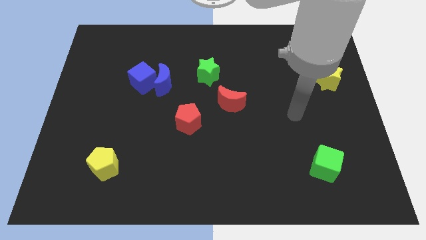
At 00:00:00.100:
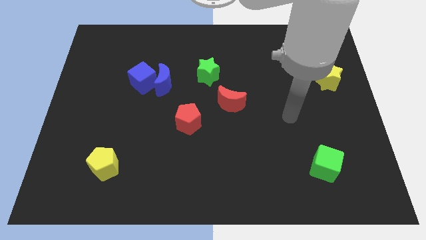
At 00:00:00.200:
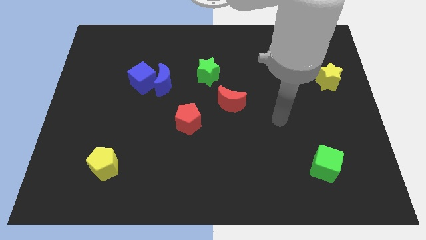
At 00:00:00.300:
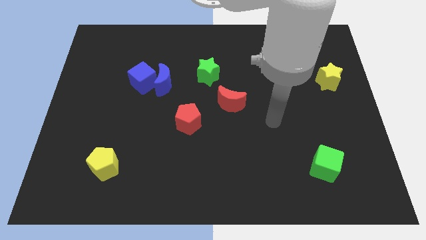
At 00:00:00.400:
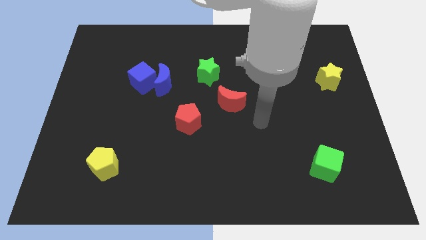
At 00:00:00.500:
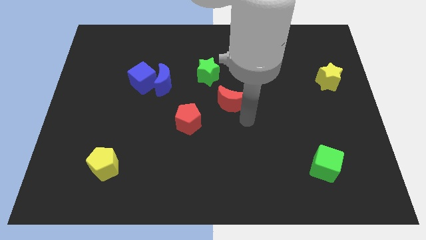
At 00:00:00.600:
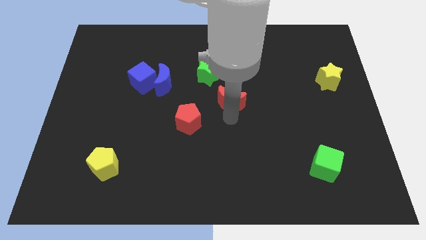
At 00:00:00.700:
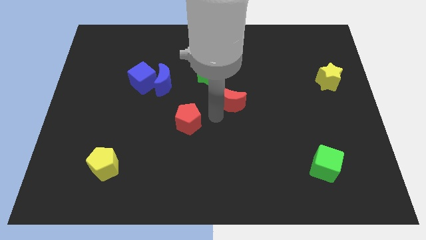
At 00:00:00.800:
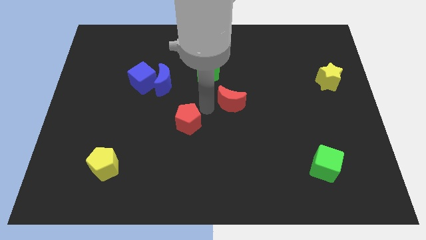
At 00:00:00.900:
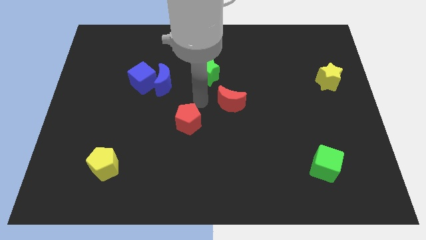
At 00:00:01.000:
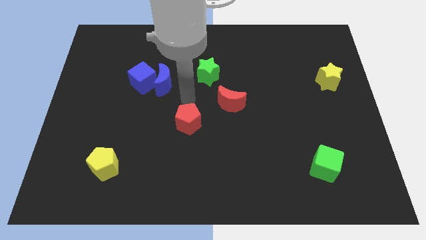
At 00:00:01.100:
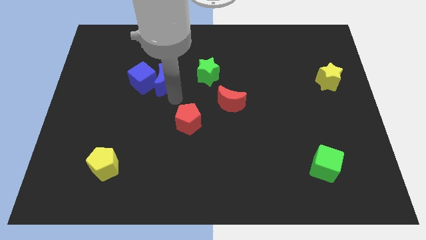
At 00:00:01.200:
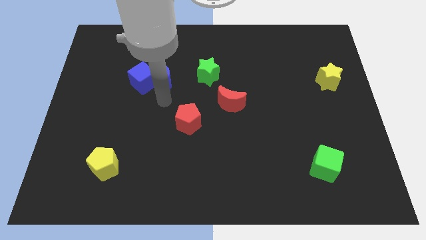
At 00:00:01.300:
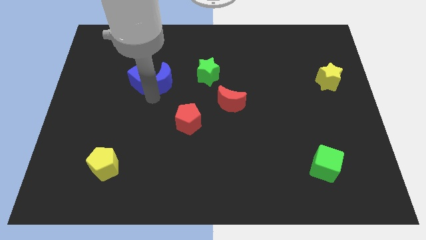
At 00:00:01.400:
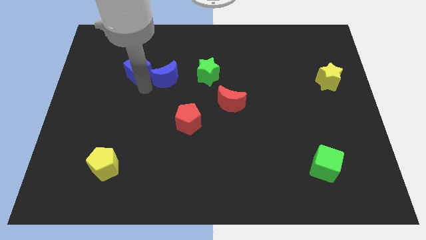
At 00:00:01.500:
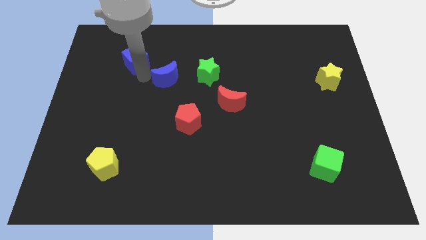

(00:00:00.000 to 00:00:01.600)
move the blue moon away from the blue cube

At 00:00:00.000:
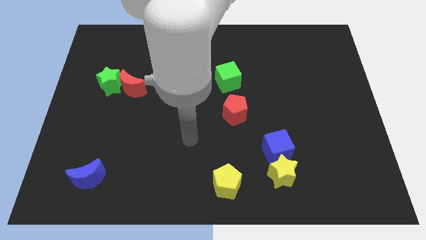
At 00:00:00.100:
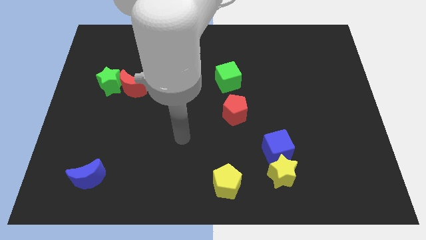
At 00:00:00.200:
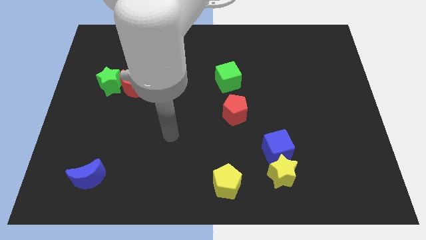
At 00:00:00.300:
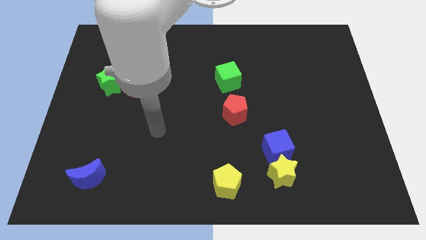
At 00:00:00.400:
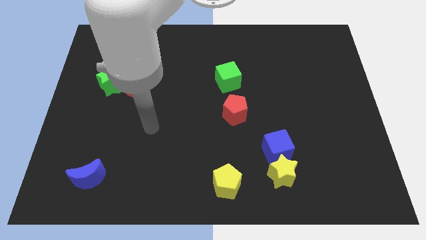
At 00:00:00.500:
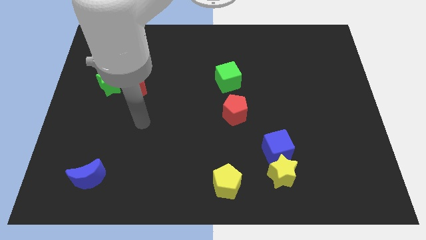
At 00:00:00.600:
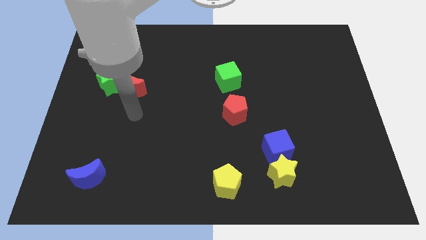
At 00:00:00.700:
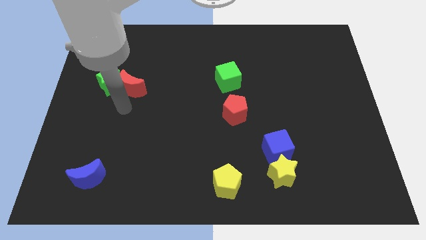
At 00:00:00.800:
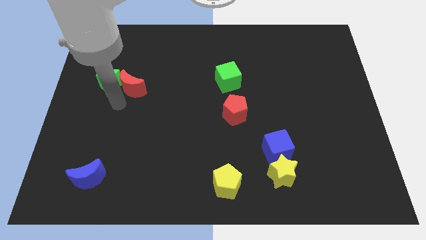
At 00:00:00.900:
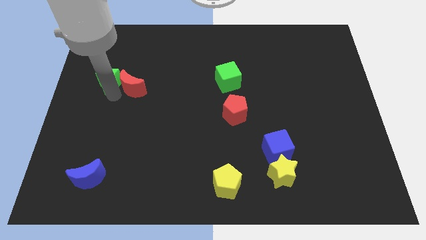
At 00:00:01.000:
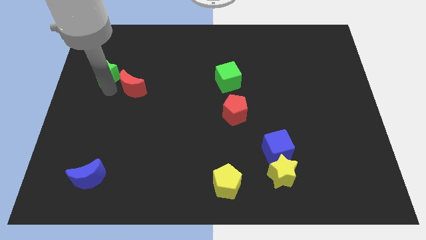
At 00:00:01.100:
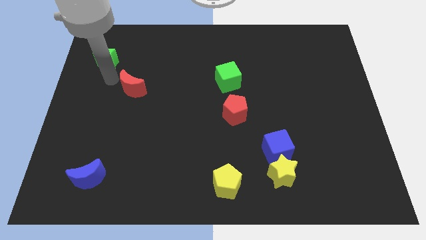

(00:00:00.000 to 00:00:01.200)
separate the red moon from the green star

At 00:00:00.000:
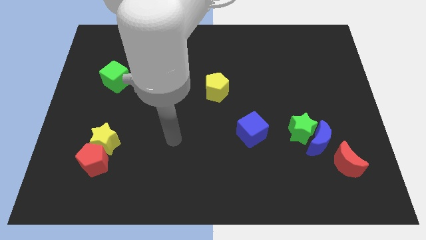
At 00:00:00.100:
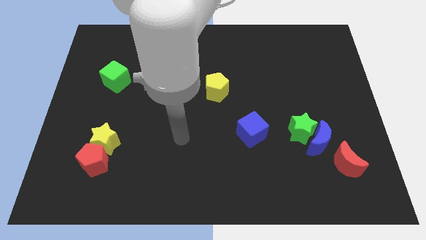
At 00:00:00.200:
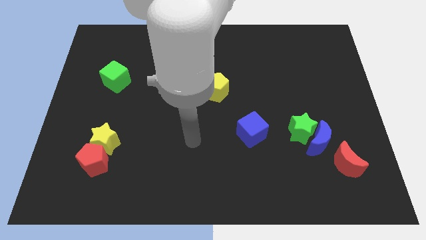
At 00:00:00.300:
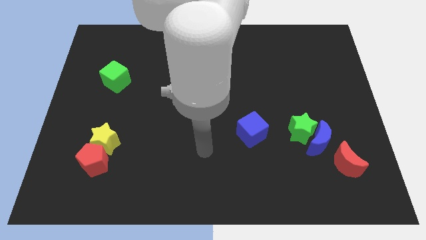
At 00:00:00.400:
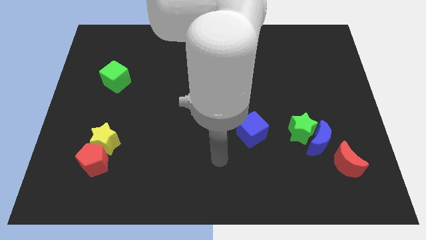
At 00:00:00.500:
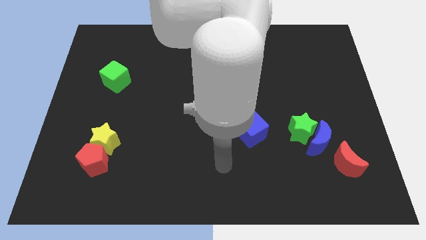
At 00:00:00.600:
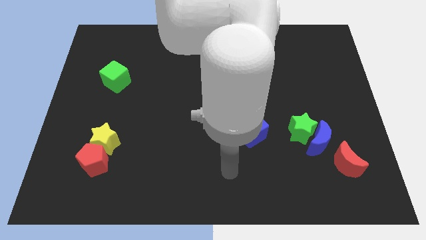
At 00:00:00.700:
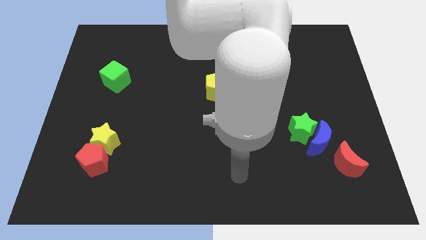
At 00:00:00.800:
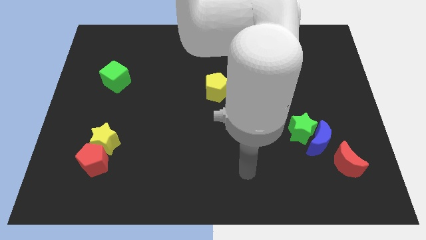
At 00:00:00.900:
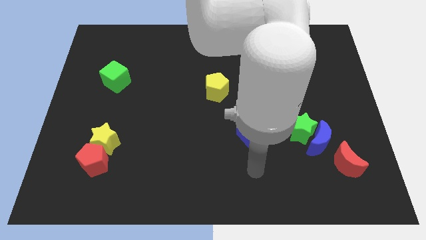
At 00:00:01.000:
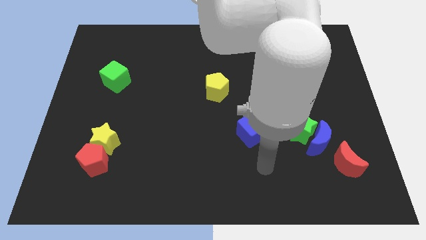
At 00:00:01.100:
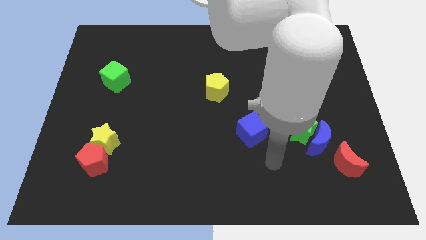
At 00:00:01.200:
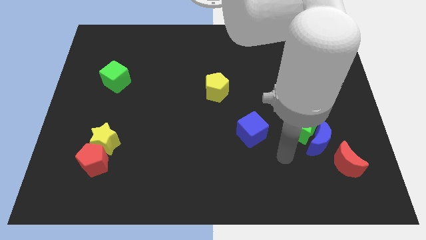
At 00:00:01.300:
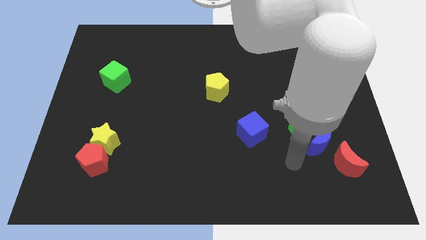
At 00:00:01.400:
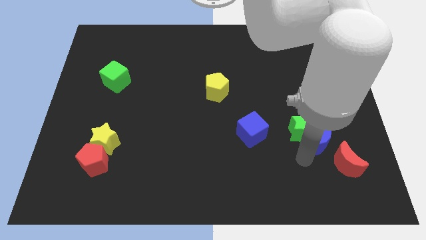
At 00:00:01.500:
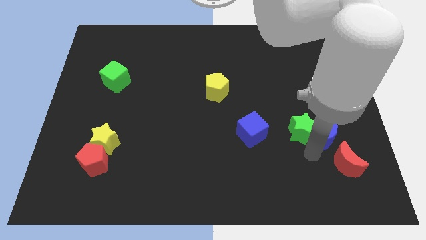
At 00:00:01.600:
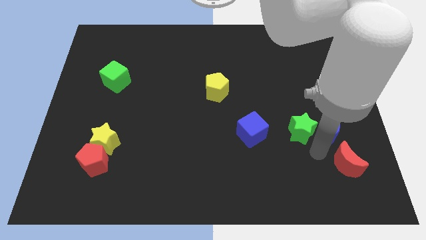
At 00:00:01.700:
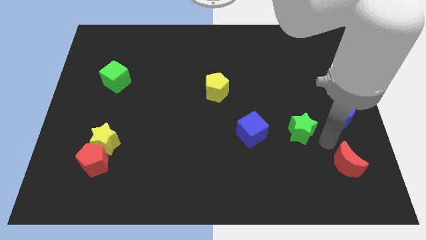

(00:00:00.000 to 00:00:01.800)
separate the green star from the blue moon

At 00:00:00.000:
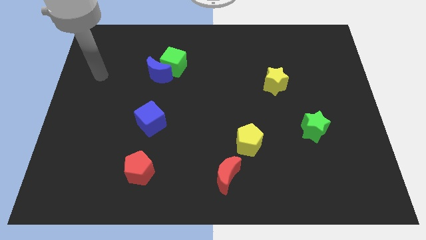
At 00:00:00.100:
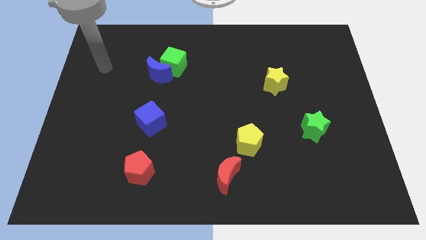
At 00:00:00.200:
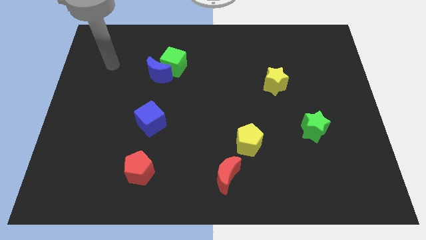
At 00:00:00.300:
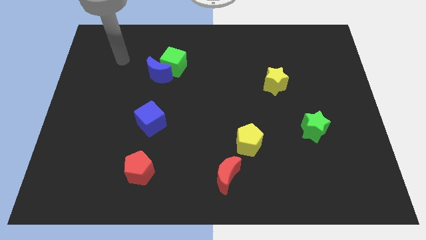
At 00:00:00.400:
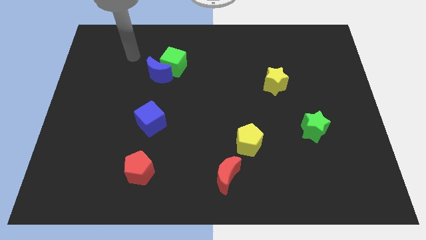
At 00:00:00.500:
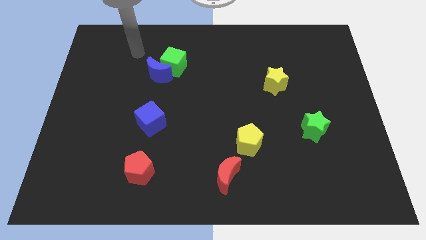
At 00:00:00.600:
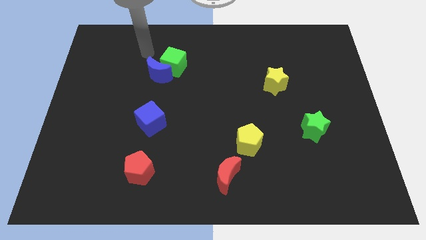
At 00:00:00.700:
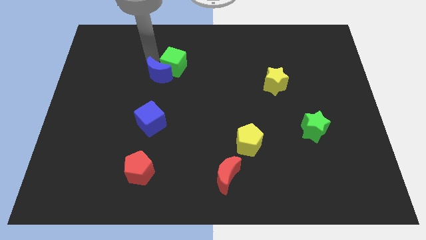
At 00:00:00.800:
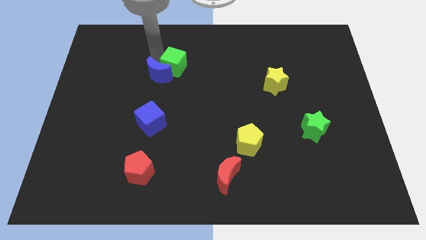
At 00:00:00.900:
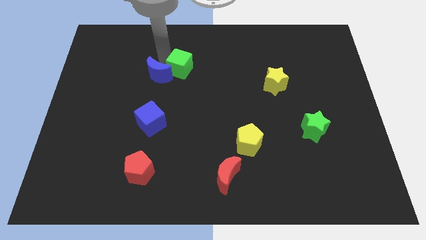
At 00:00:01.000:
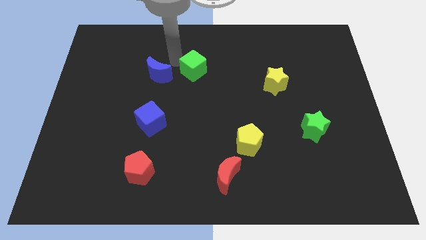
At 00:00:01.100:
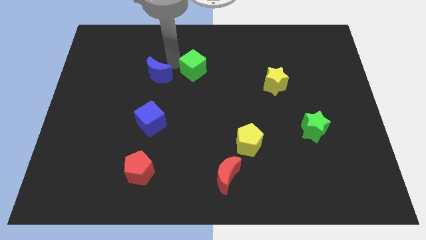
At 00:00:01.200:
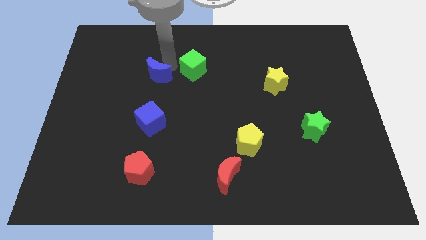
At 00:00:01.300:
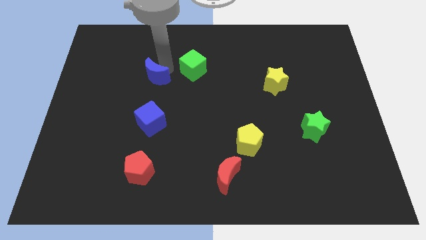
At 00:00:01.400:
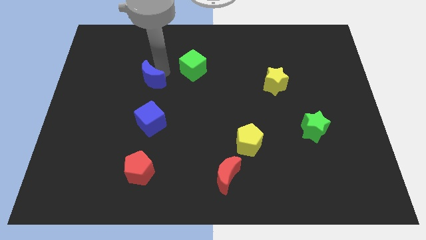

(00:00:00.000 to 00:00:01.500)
move the blue moon away from the green cube

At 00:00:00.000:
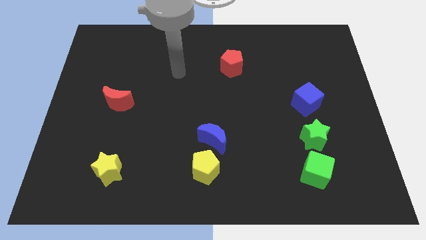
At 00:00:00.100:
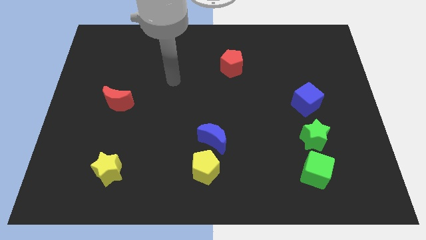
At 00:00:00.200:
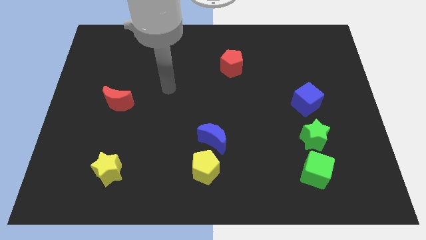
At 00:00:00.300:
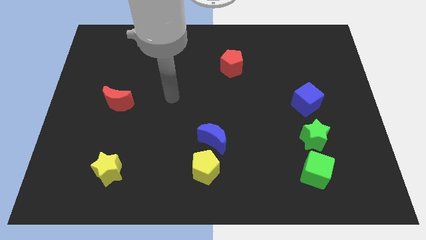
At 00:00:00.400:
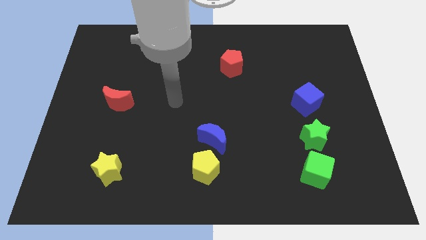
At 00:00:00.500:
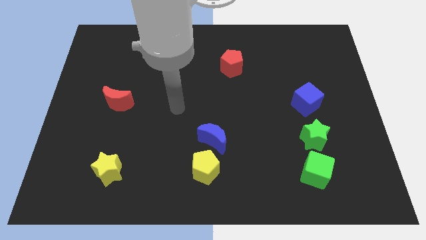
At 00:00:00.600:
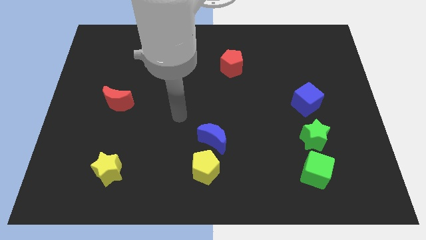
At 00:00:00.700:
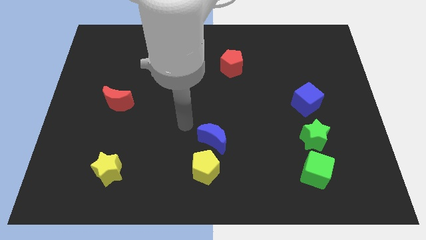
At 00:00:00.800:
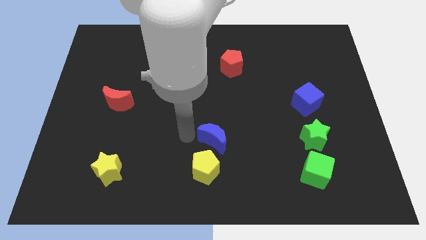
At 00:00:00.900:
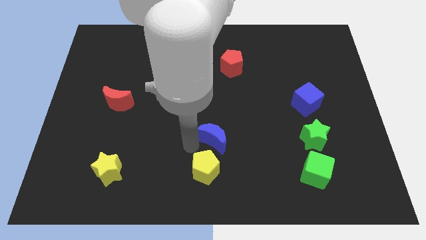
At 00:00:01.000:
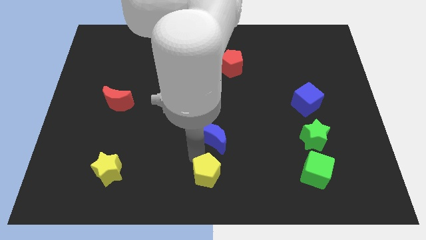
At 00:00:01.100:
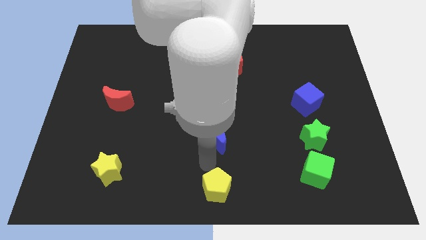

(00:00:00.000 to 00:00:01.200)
move the blue moon away from the yellow pentagon

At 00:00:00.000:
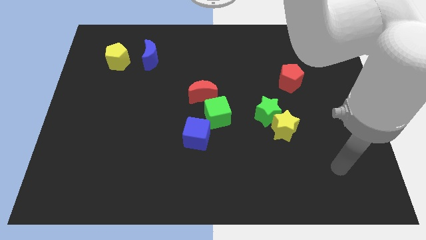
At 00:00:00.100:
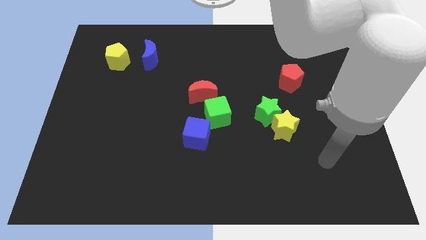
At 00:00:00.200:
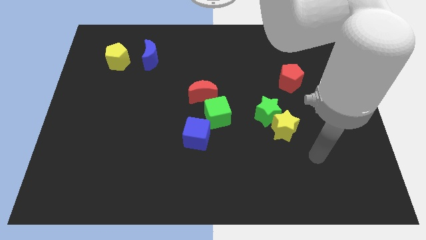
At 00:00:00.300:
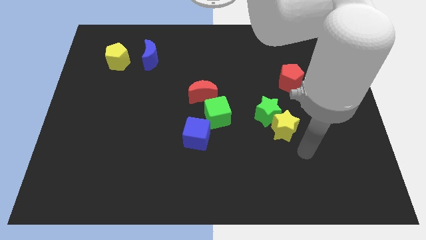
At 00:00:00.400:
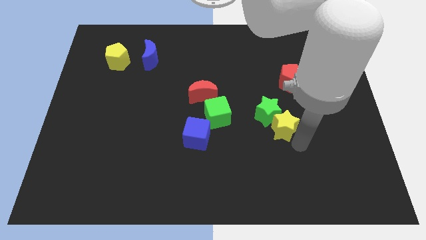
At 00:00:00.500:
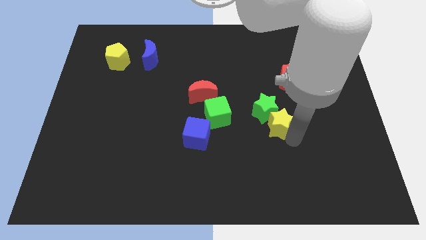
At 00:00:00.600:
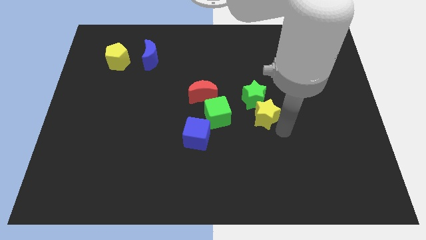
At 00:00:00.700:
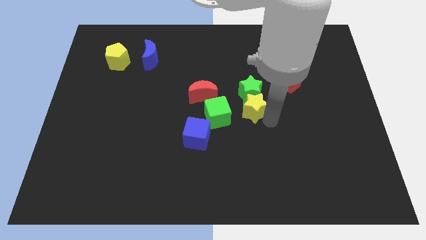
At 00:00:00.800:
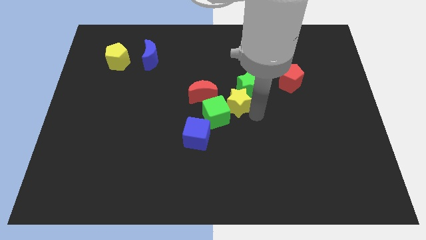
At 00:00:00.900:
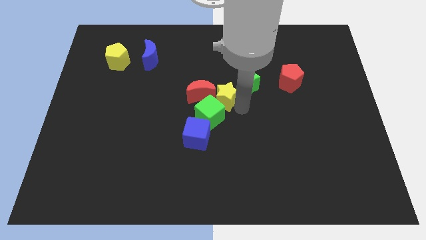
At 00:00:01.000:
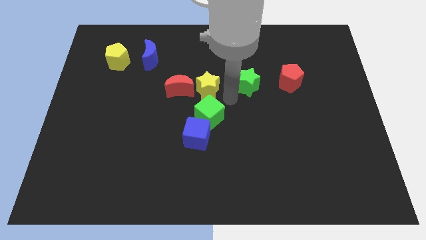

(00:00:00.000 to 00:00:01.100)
move the green star away from the yellow star

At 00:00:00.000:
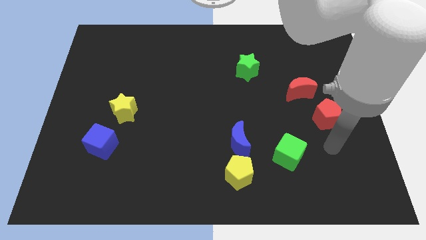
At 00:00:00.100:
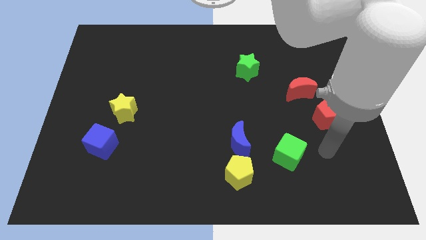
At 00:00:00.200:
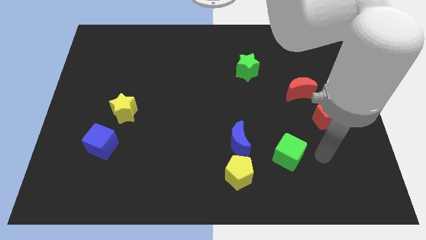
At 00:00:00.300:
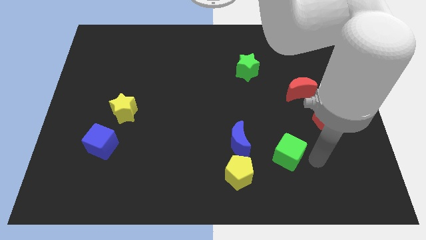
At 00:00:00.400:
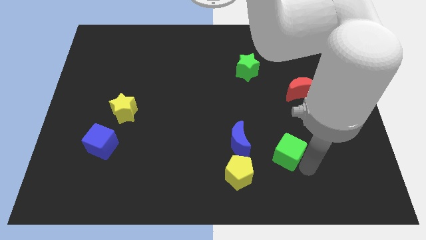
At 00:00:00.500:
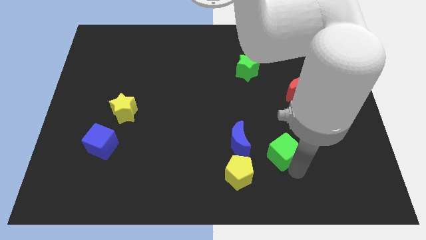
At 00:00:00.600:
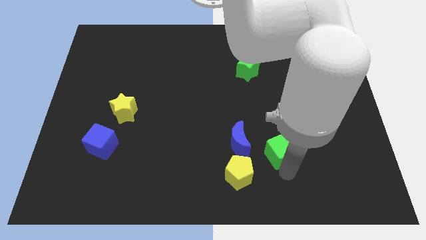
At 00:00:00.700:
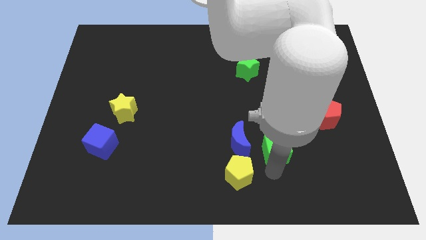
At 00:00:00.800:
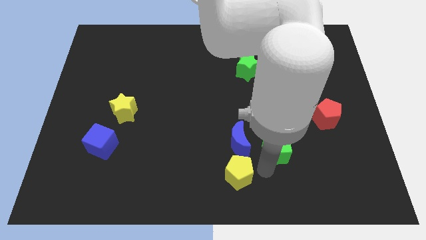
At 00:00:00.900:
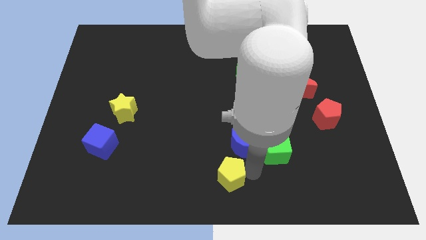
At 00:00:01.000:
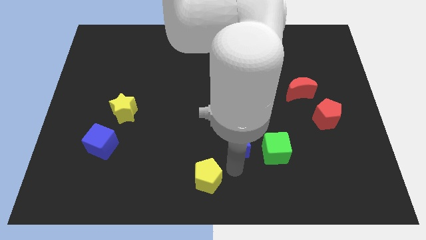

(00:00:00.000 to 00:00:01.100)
pull the blue moon apart from the yellow pentagon
